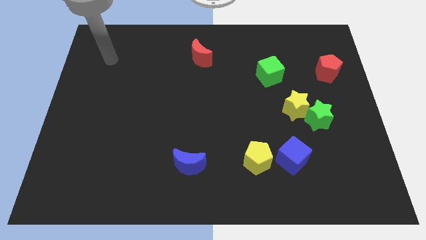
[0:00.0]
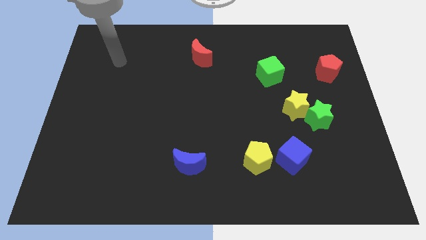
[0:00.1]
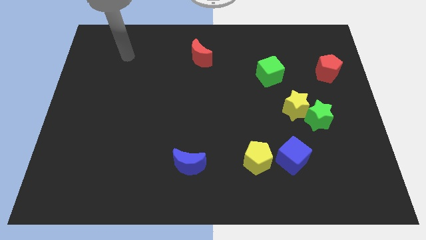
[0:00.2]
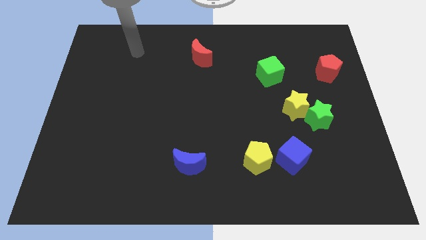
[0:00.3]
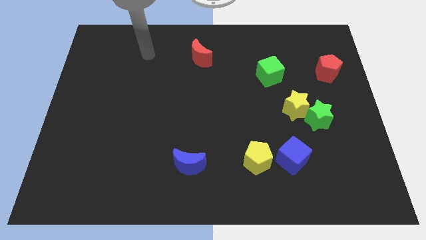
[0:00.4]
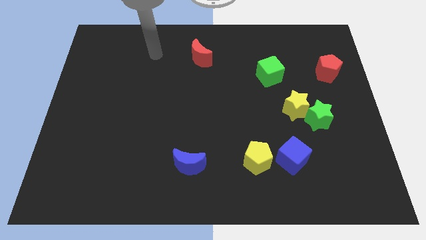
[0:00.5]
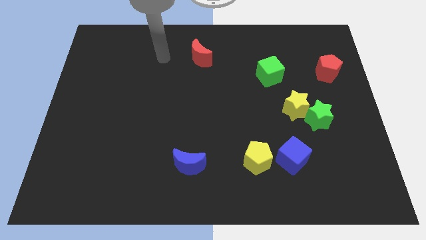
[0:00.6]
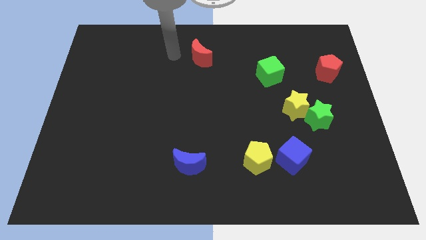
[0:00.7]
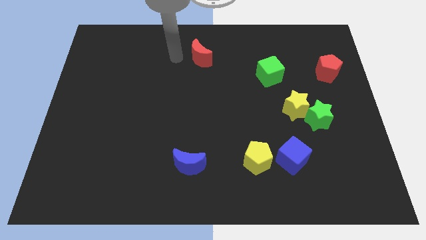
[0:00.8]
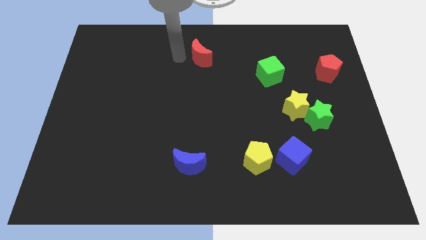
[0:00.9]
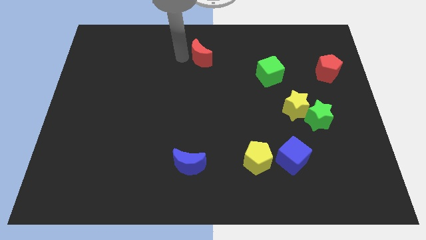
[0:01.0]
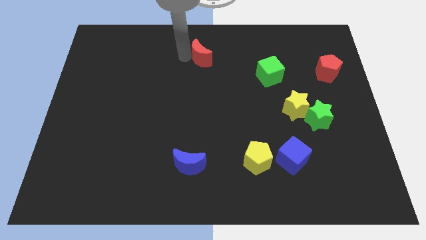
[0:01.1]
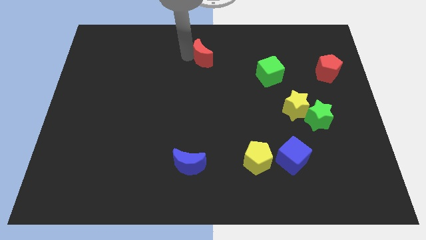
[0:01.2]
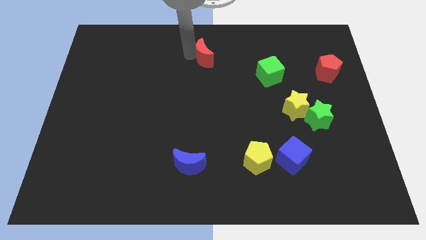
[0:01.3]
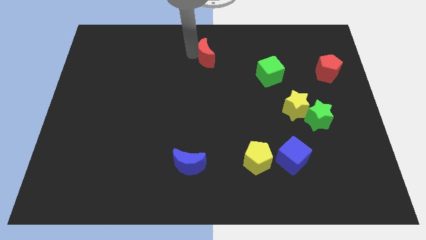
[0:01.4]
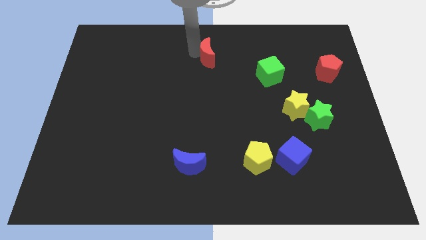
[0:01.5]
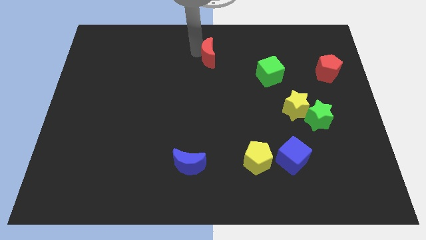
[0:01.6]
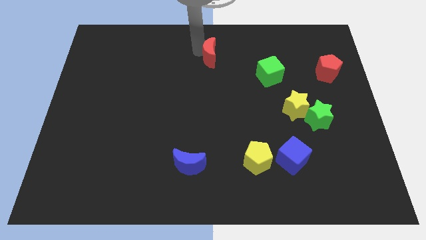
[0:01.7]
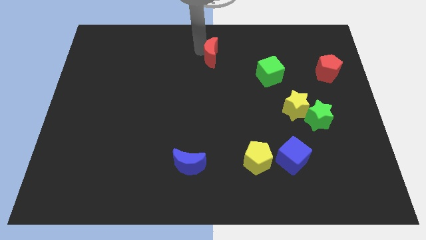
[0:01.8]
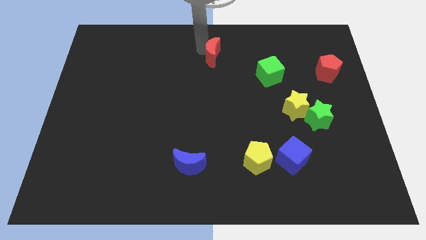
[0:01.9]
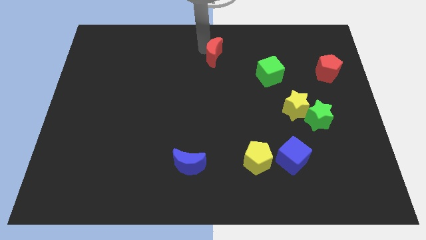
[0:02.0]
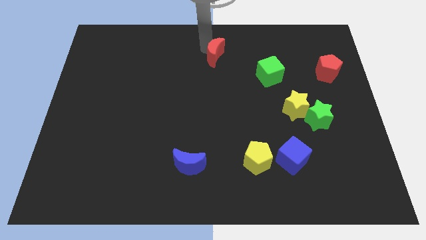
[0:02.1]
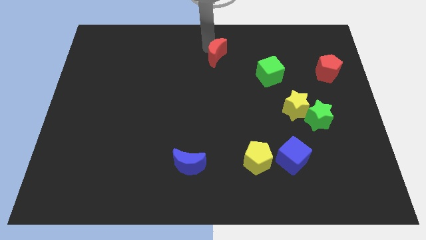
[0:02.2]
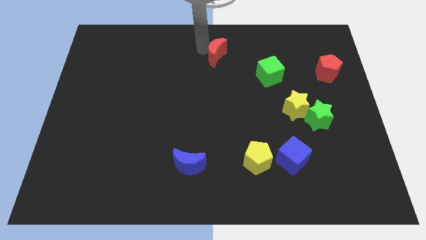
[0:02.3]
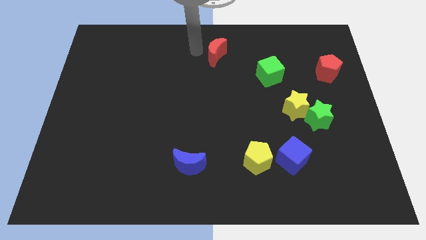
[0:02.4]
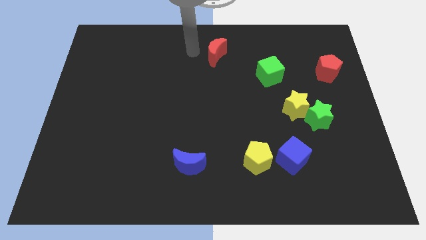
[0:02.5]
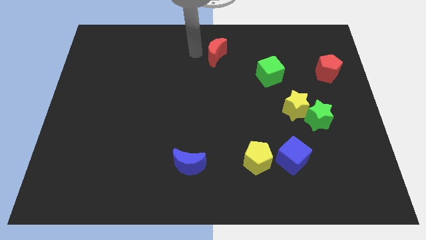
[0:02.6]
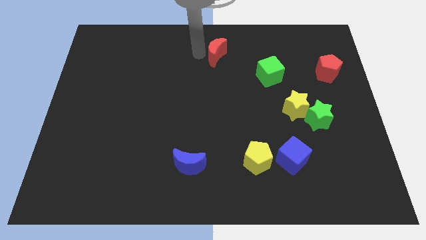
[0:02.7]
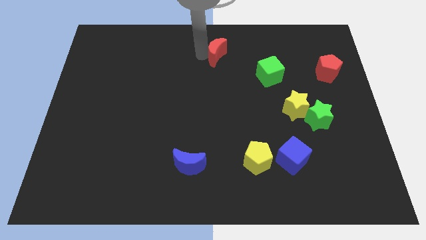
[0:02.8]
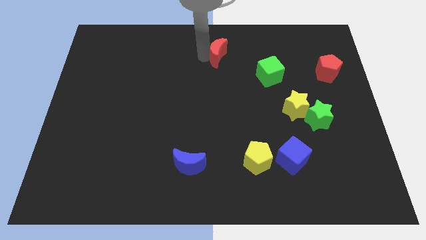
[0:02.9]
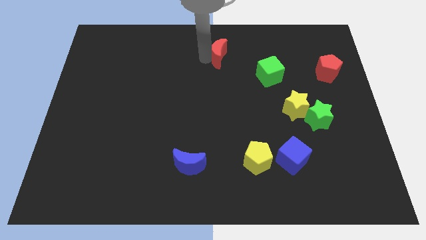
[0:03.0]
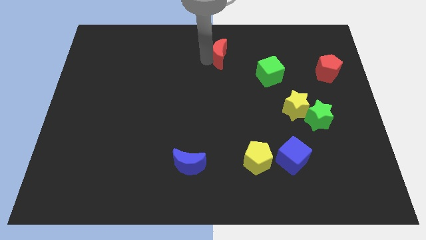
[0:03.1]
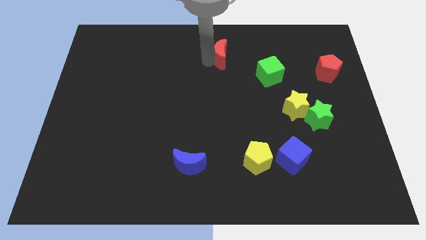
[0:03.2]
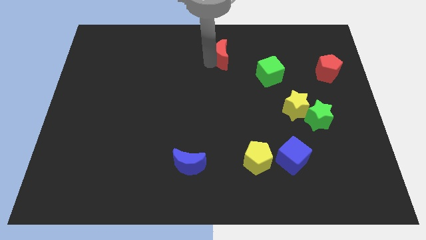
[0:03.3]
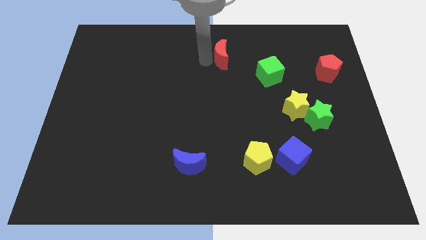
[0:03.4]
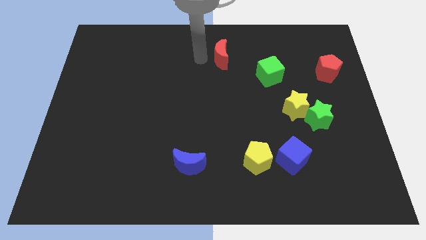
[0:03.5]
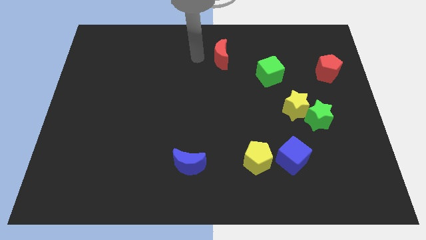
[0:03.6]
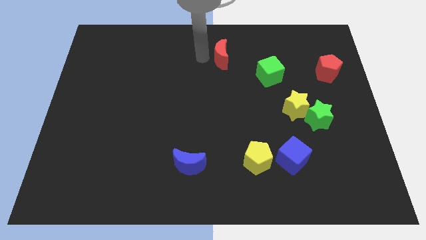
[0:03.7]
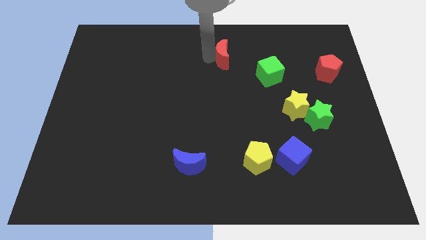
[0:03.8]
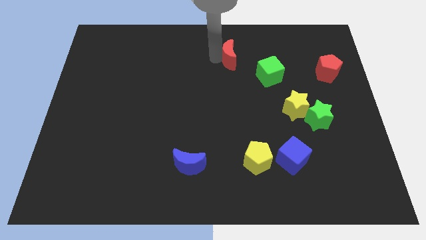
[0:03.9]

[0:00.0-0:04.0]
slide the red moon right a bit

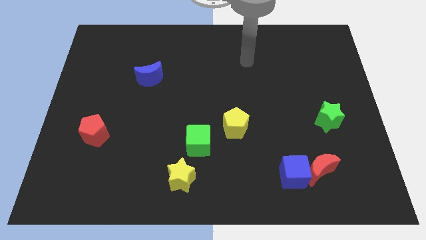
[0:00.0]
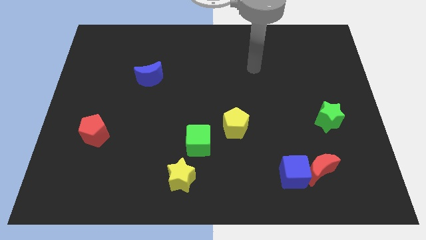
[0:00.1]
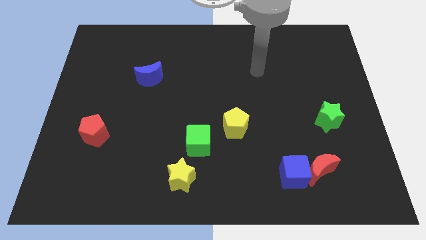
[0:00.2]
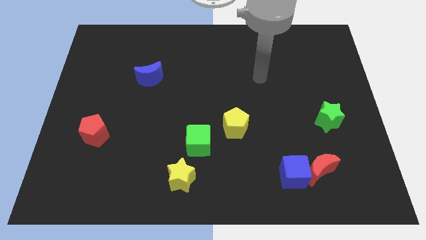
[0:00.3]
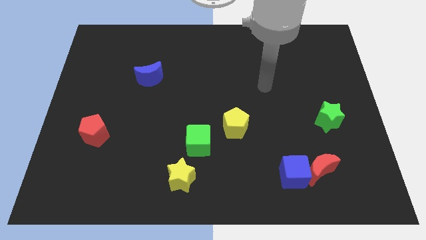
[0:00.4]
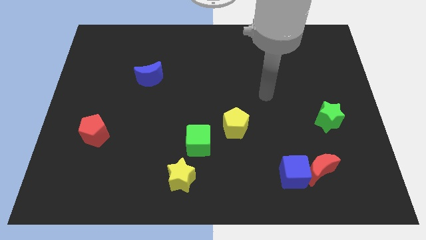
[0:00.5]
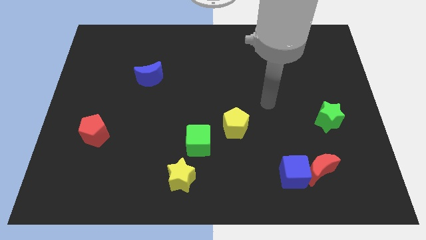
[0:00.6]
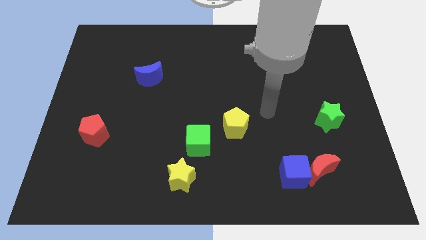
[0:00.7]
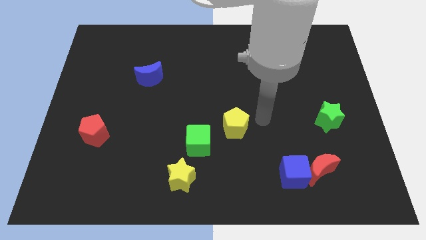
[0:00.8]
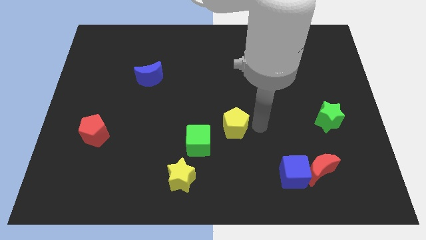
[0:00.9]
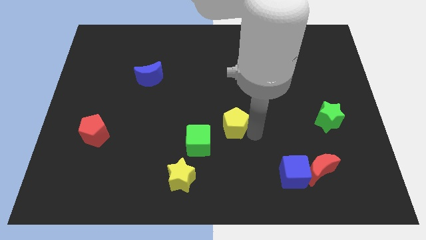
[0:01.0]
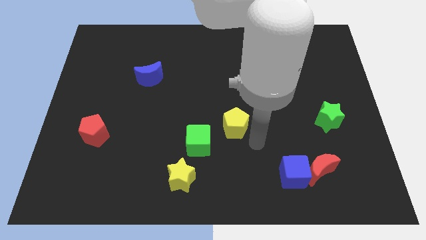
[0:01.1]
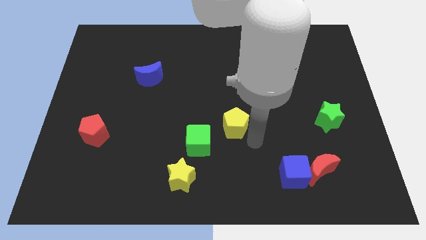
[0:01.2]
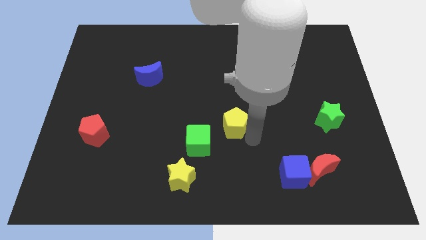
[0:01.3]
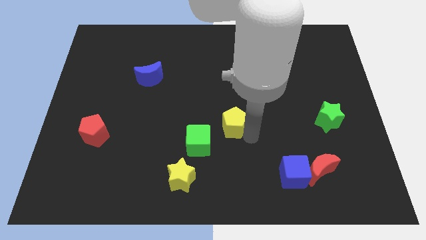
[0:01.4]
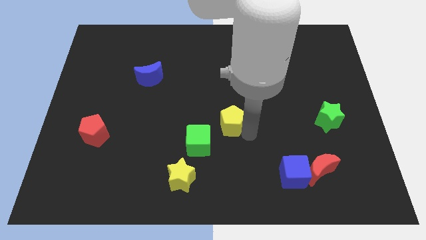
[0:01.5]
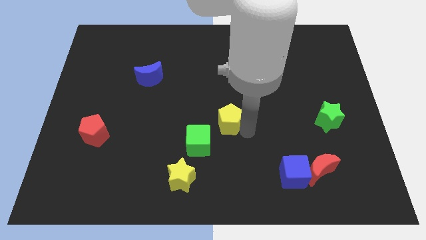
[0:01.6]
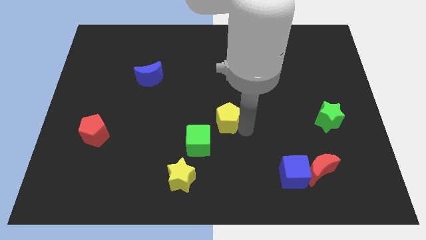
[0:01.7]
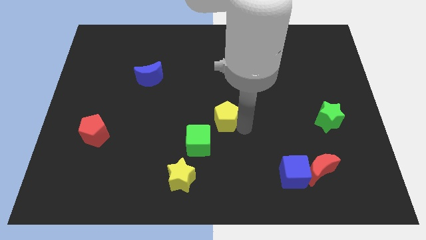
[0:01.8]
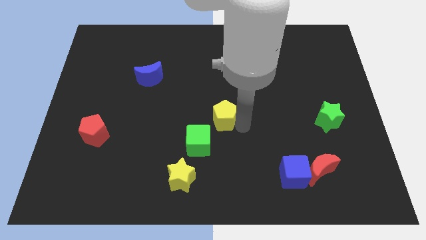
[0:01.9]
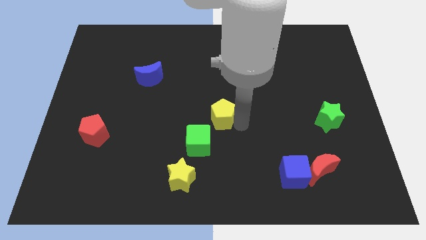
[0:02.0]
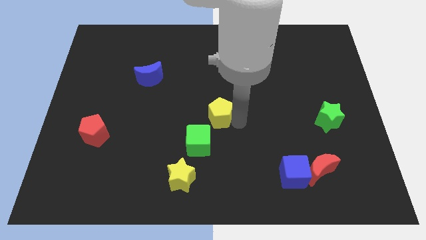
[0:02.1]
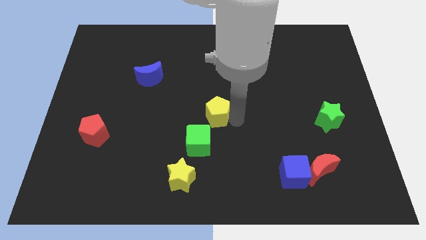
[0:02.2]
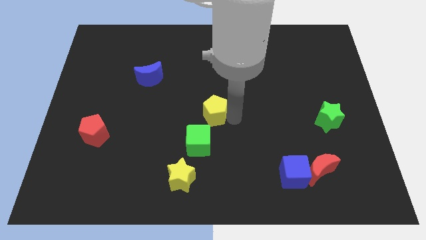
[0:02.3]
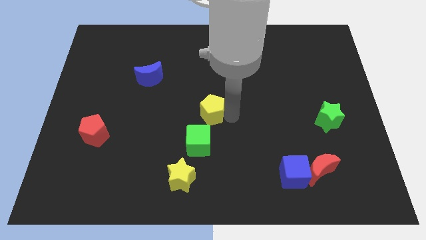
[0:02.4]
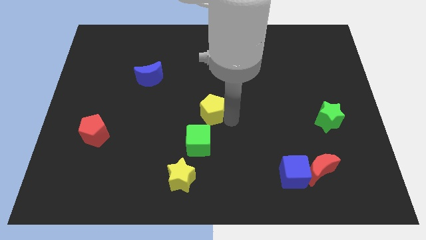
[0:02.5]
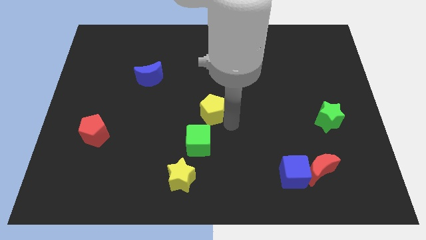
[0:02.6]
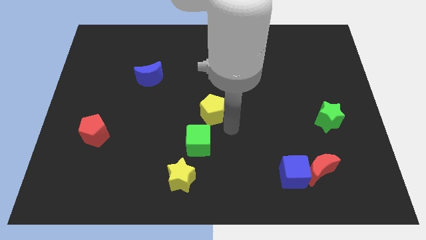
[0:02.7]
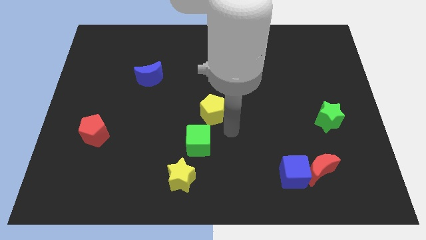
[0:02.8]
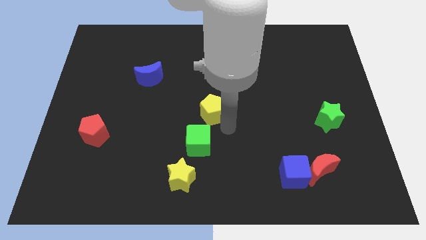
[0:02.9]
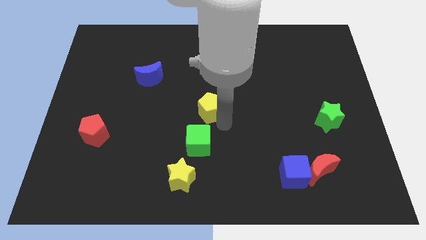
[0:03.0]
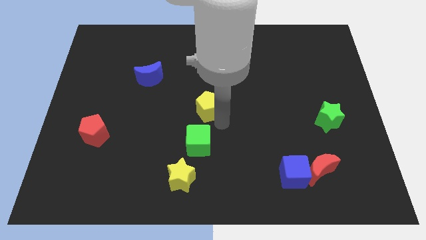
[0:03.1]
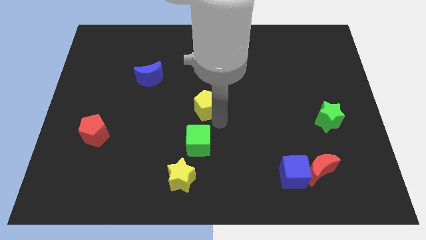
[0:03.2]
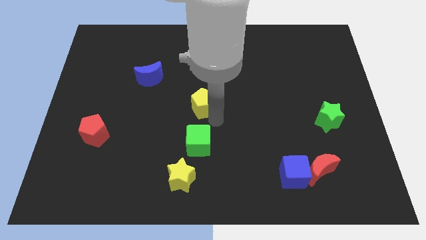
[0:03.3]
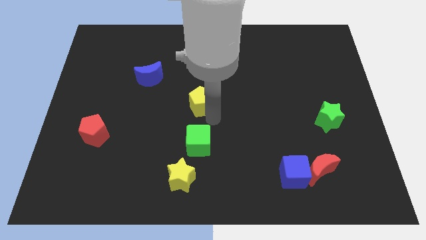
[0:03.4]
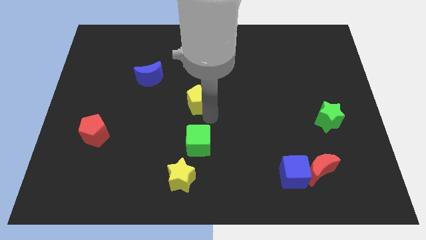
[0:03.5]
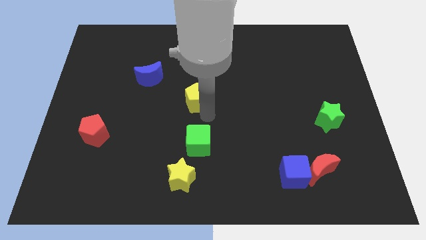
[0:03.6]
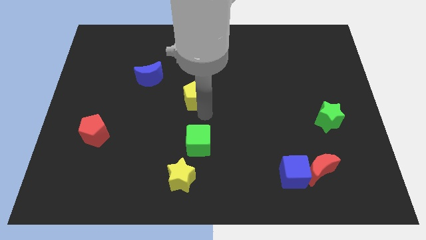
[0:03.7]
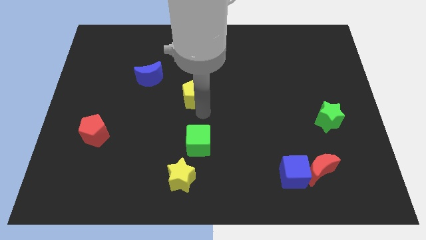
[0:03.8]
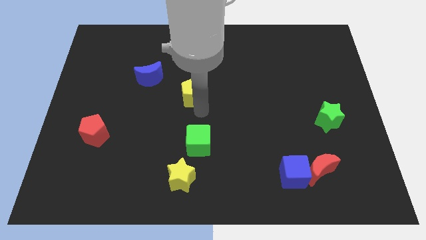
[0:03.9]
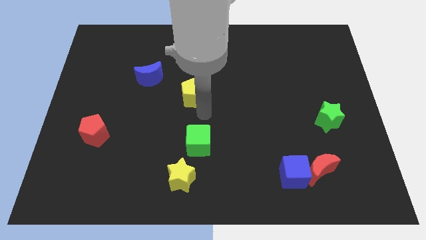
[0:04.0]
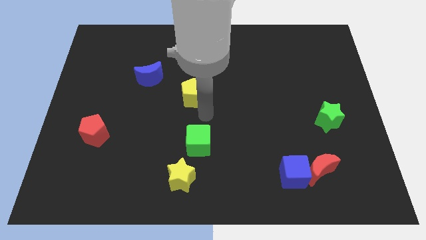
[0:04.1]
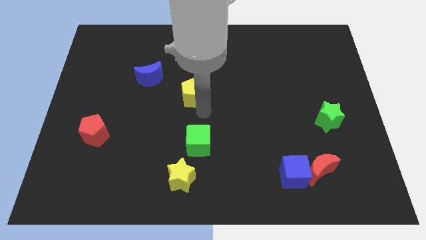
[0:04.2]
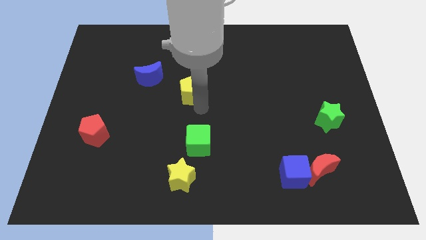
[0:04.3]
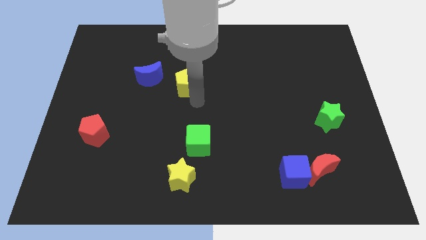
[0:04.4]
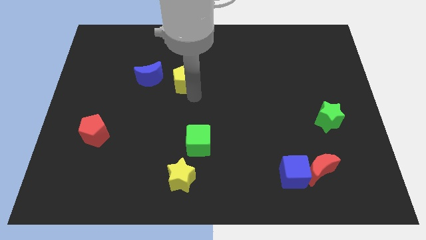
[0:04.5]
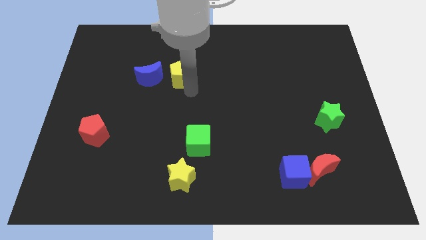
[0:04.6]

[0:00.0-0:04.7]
push the yellow pentagon up and to the left
